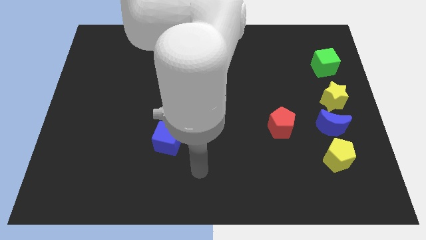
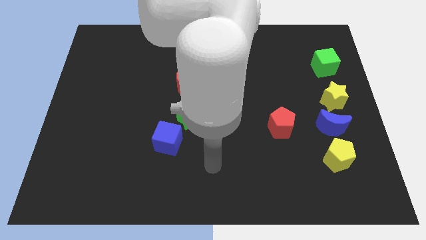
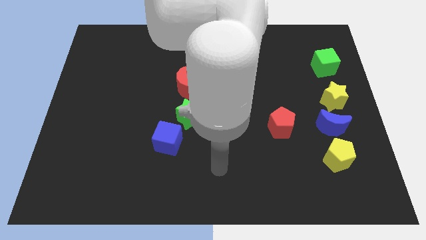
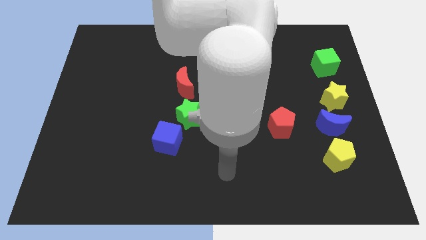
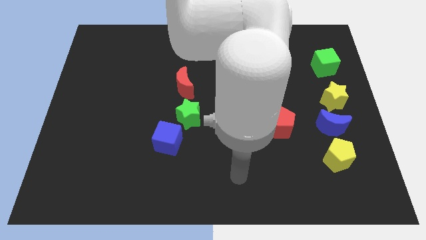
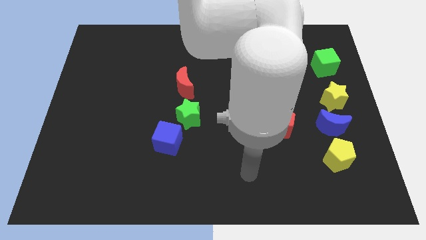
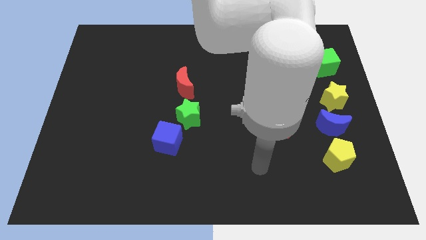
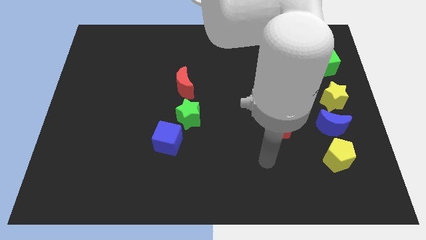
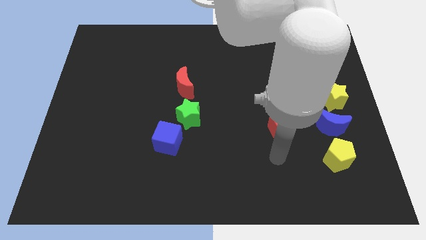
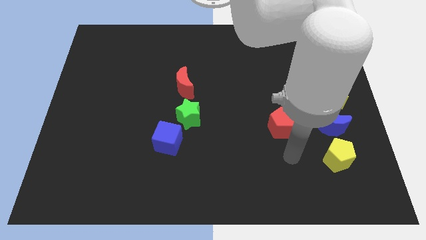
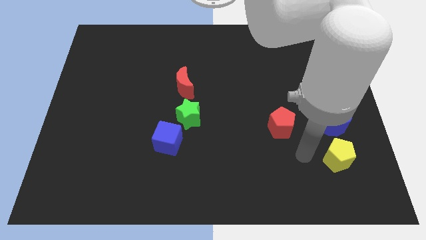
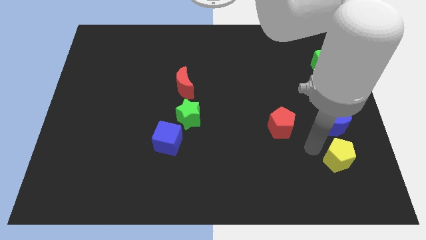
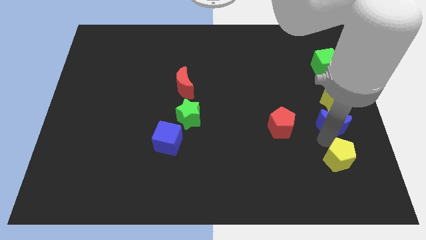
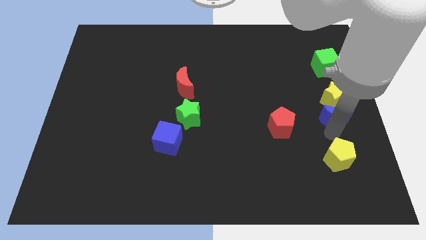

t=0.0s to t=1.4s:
move the yellow pentagon away from the blue moon

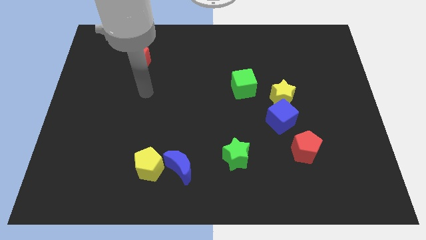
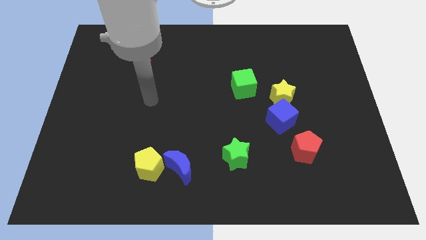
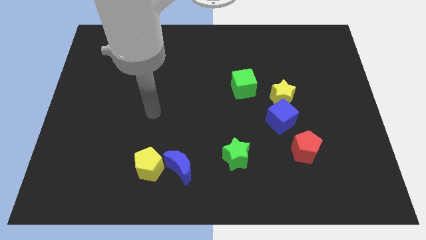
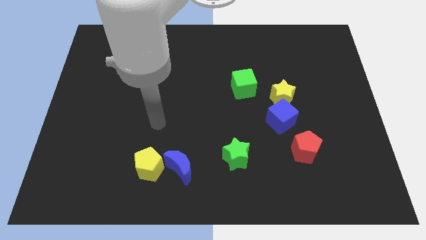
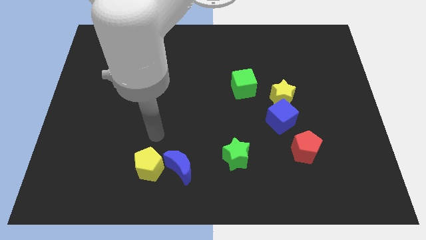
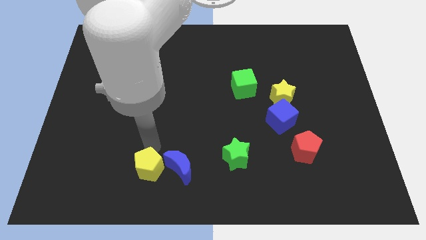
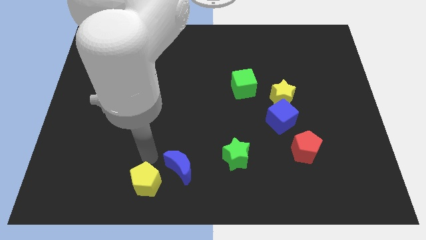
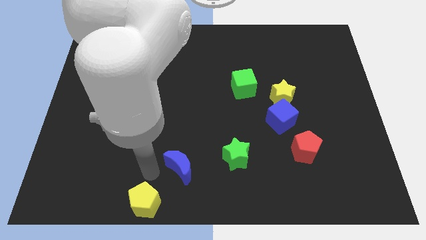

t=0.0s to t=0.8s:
separate the blue moon from the yellow pentagon

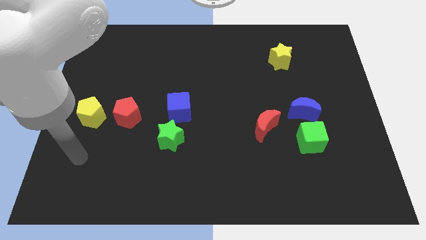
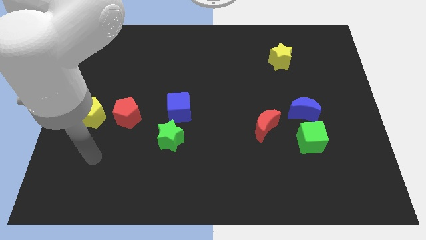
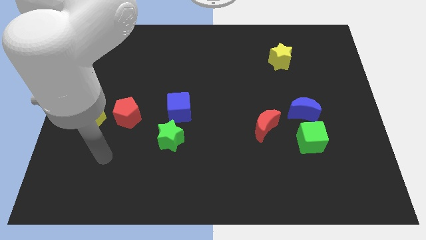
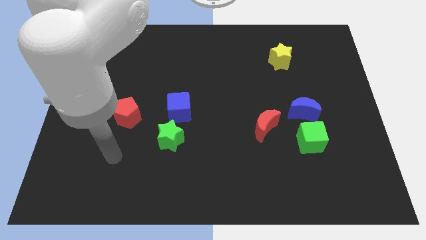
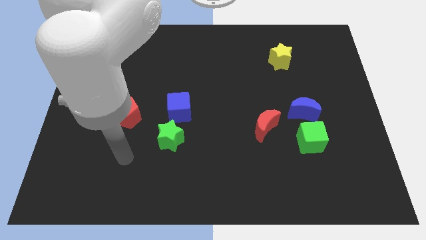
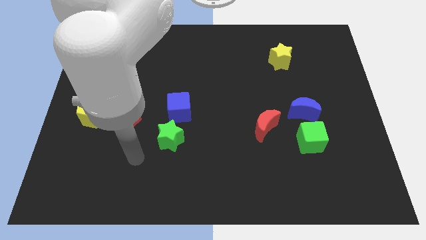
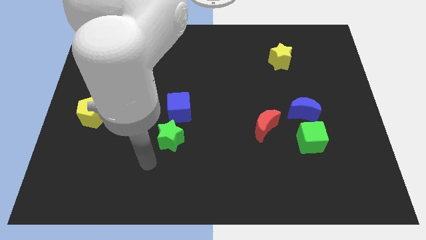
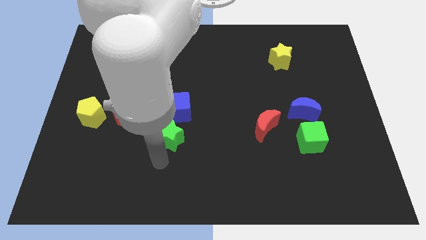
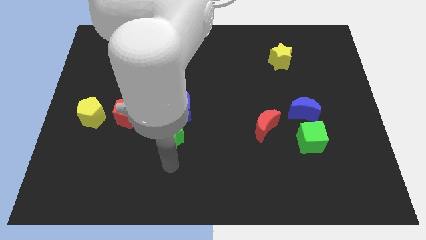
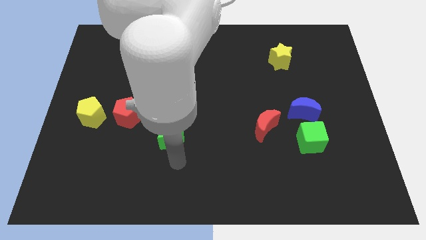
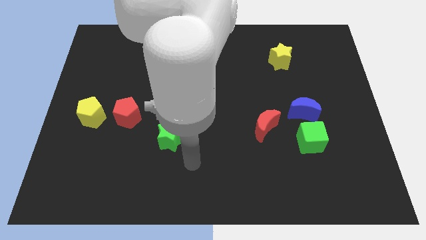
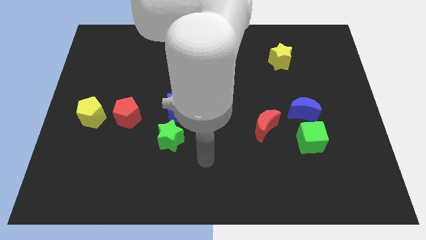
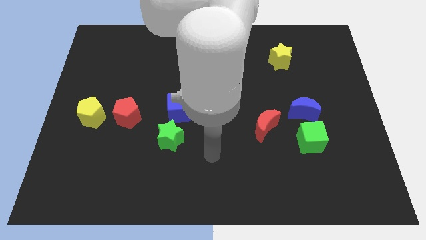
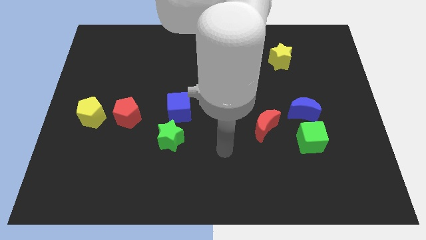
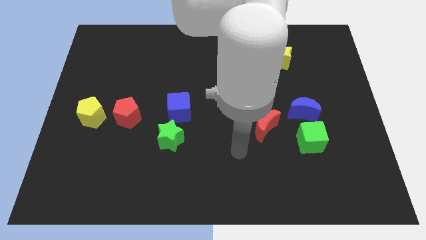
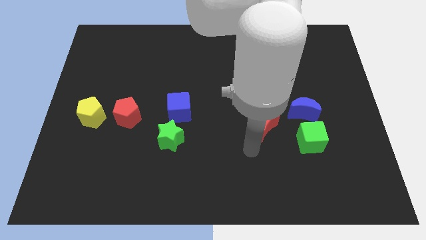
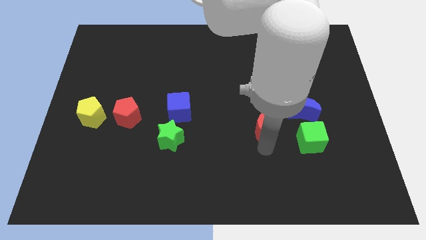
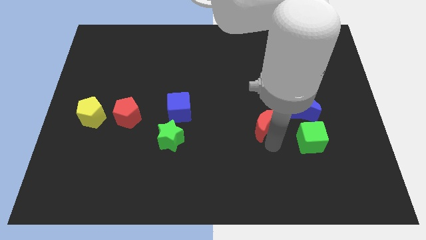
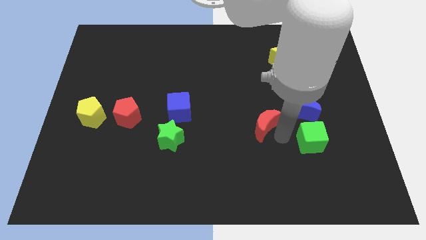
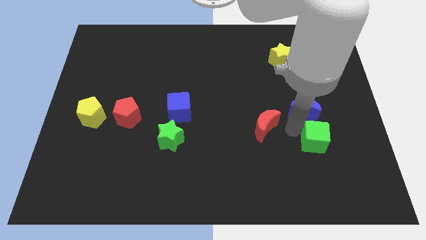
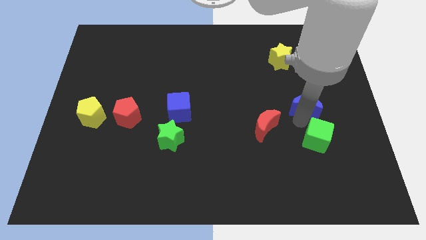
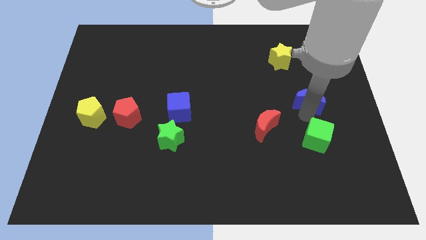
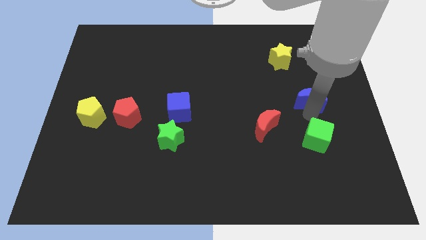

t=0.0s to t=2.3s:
separate the green cube from the blue moon

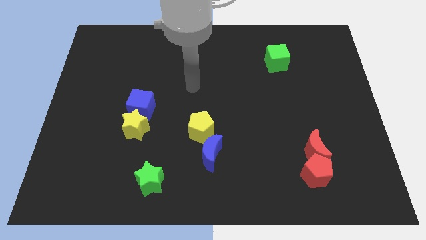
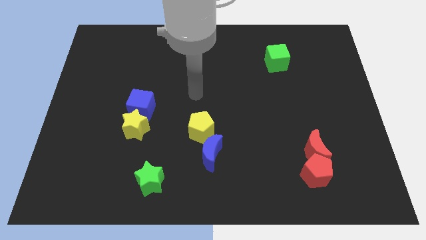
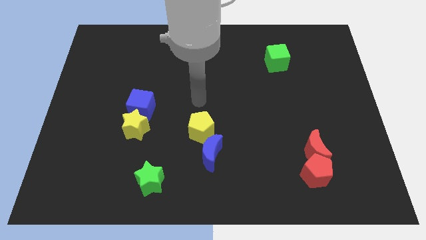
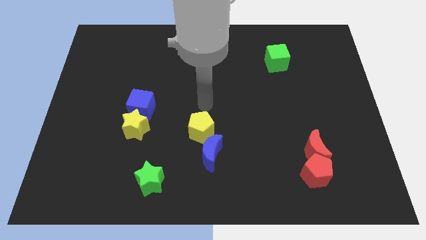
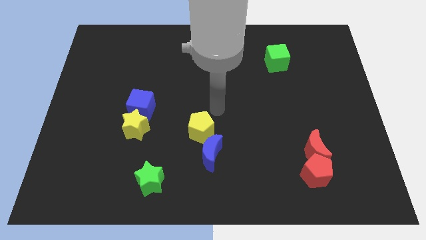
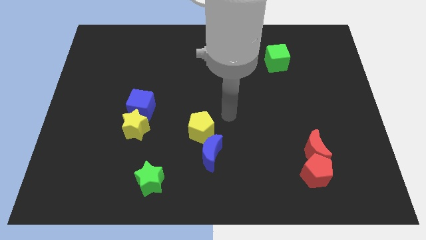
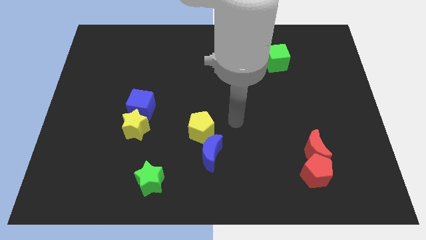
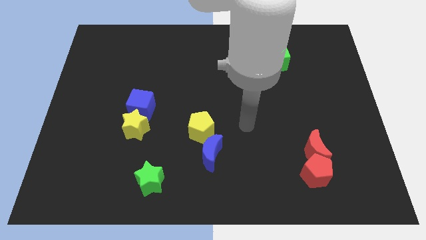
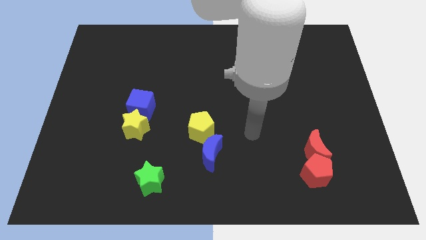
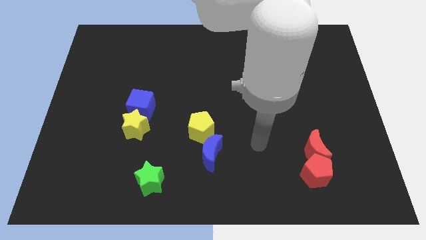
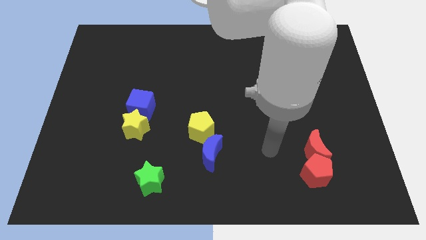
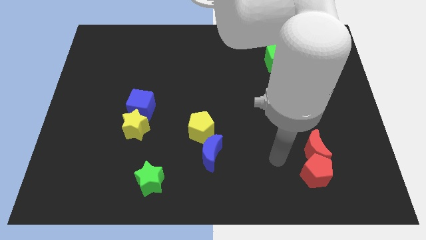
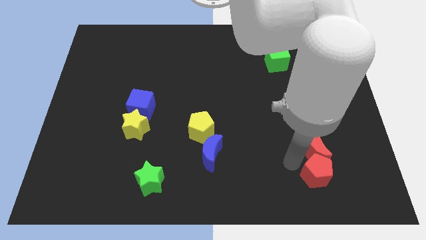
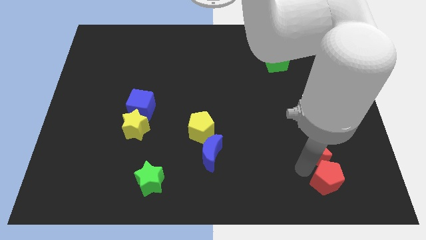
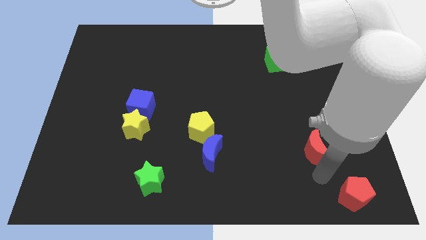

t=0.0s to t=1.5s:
pull the red moon apart from the red pentagon

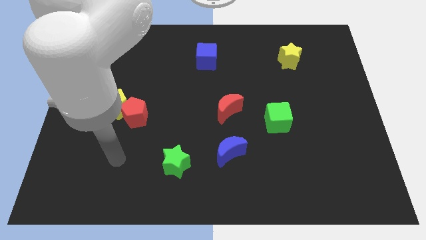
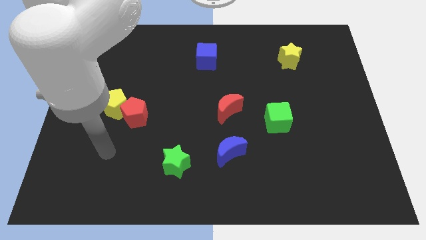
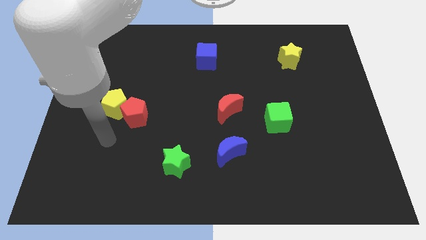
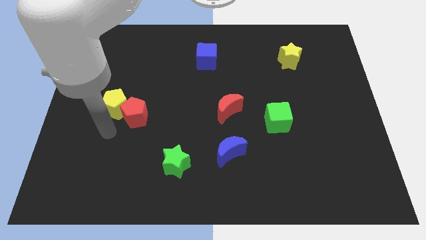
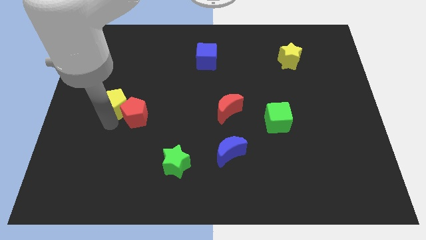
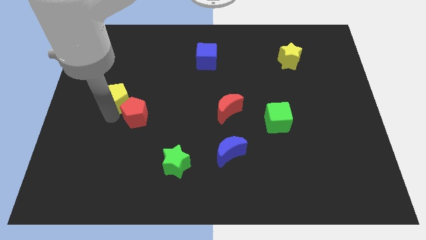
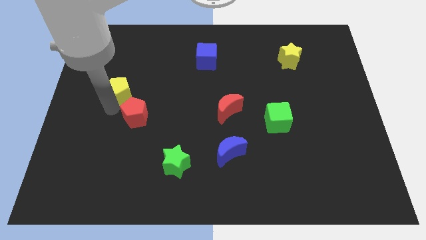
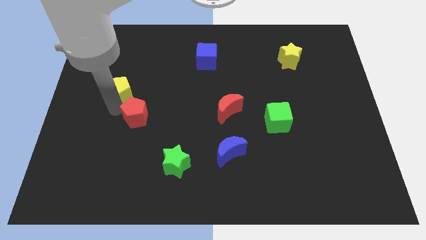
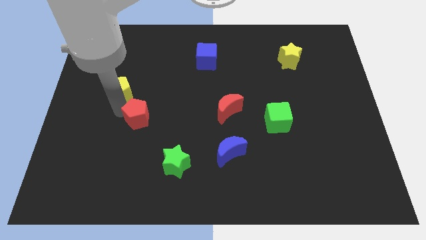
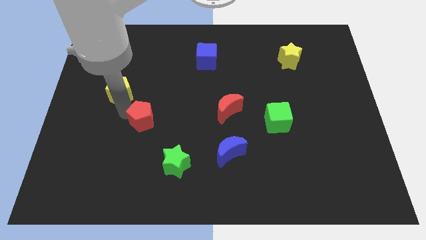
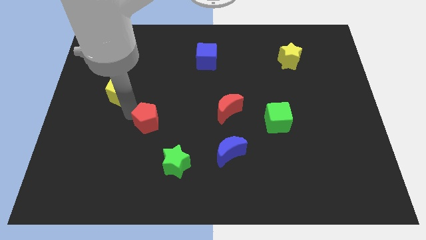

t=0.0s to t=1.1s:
move the red pentagon away from the yellow pentagon

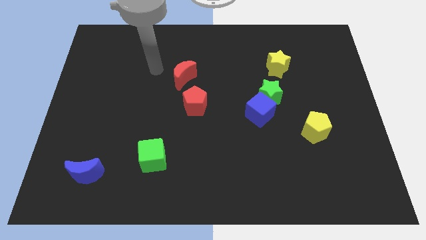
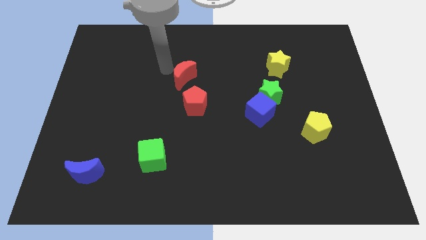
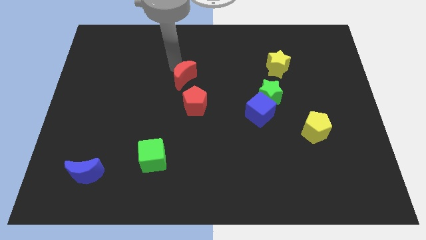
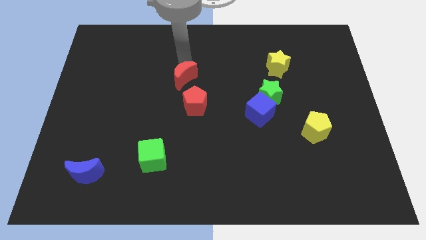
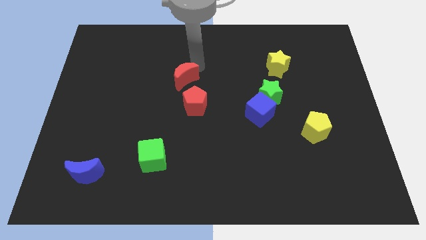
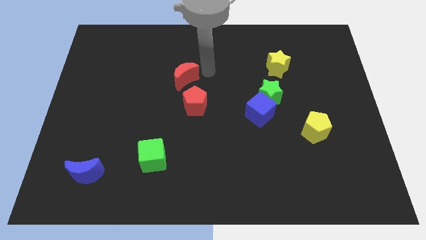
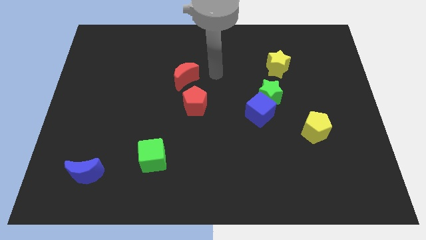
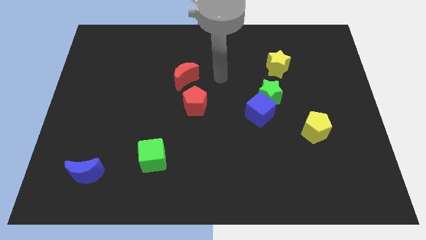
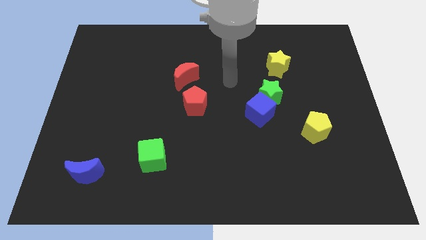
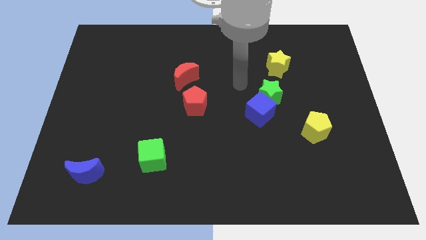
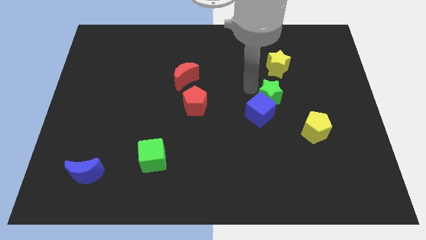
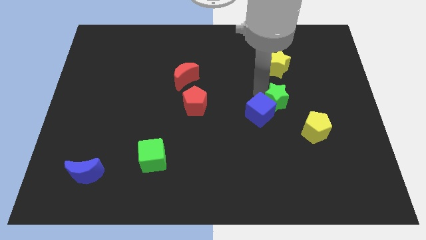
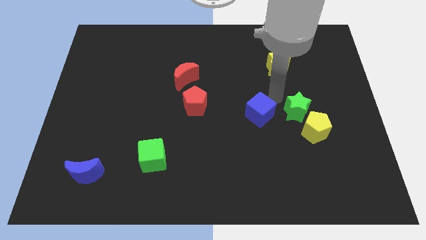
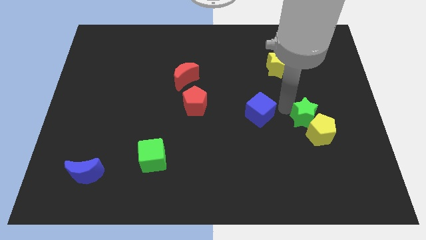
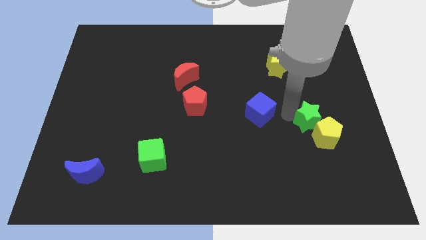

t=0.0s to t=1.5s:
pull the blue cube apart from the green star

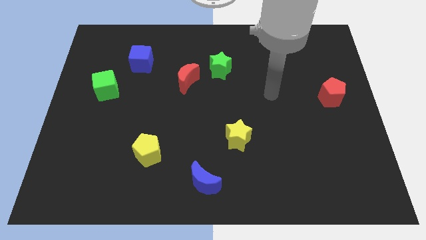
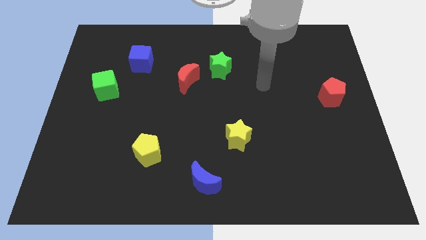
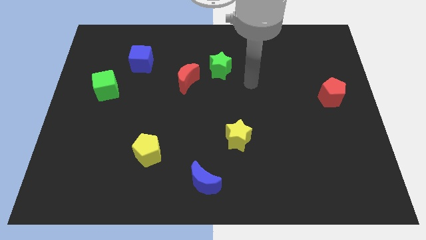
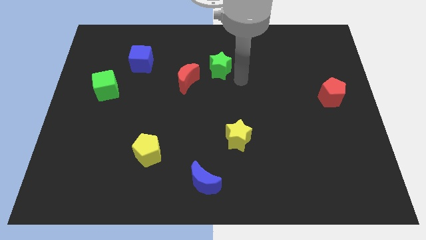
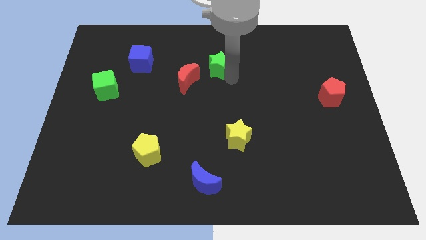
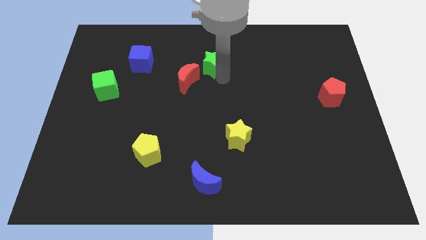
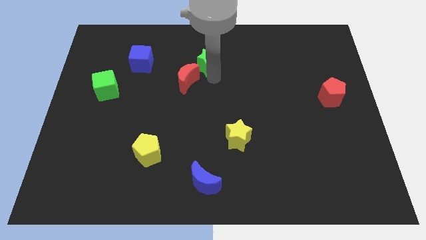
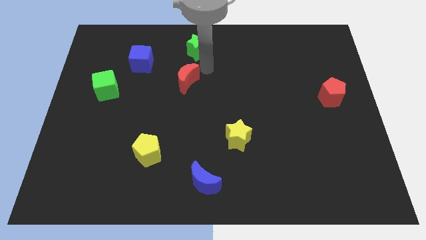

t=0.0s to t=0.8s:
move the red moon away from the green star
